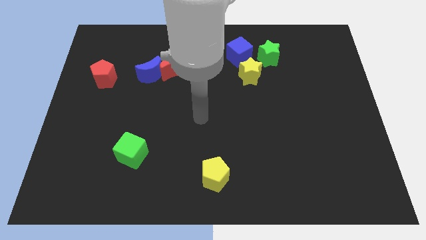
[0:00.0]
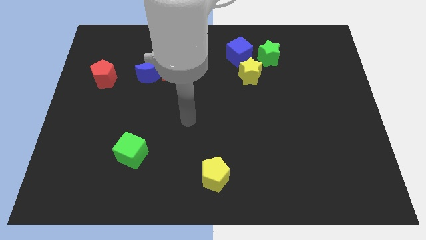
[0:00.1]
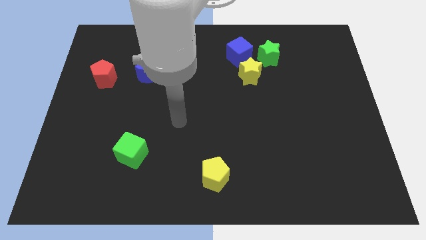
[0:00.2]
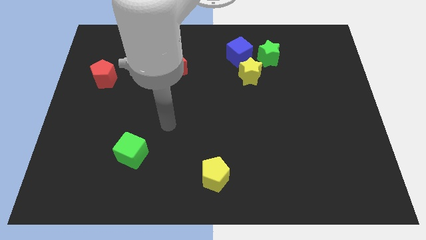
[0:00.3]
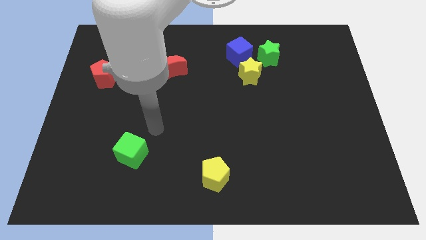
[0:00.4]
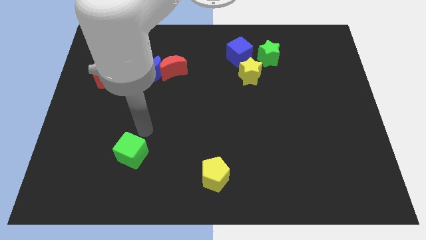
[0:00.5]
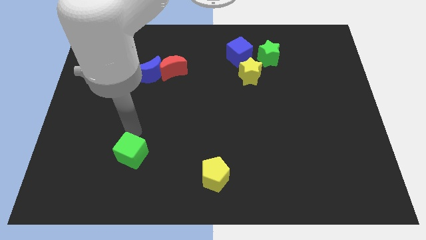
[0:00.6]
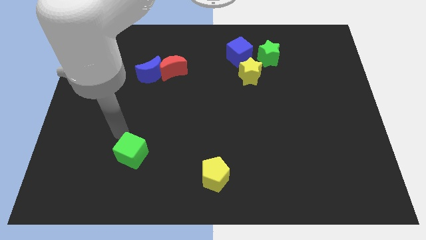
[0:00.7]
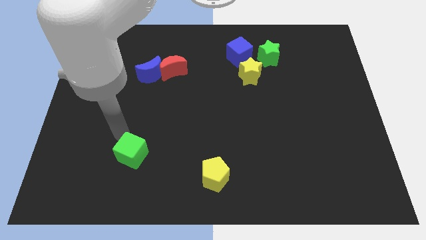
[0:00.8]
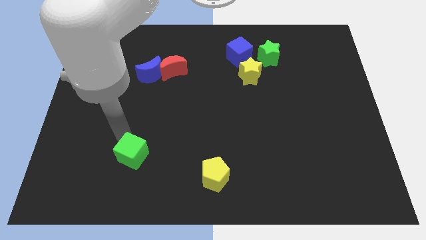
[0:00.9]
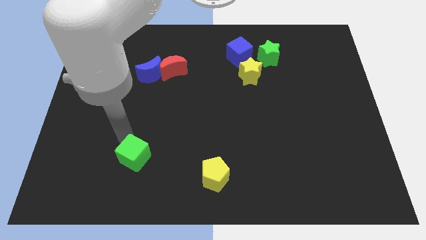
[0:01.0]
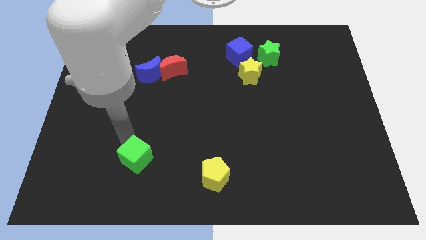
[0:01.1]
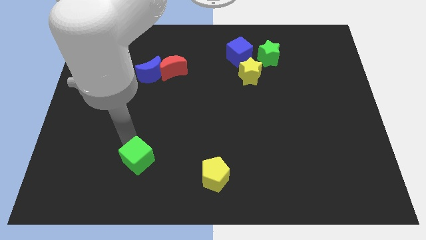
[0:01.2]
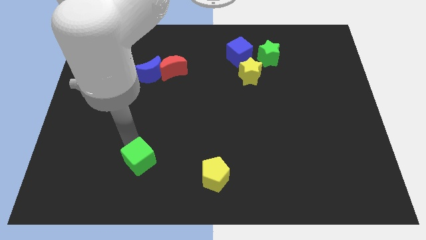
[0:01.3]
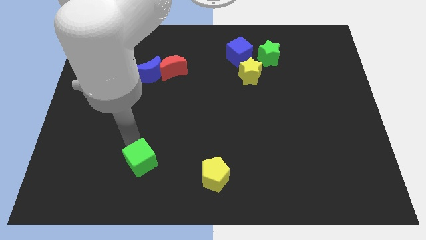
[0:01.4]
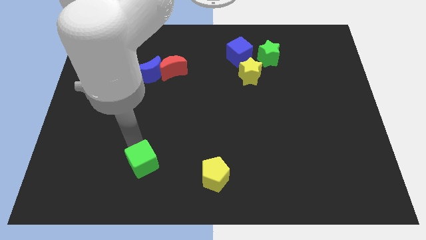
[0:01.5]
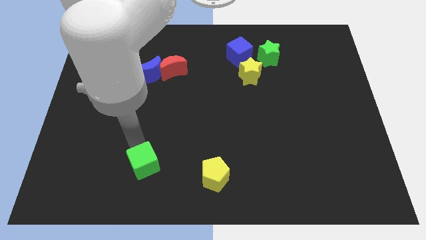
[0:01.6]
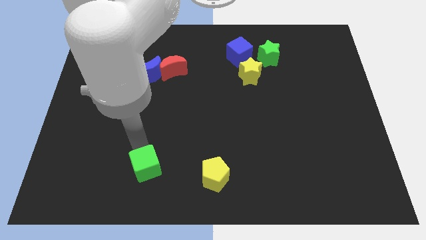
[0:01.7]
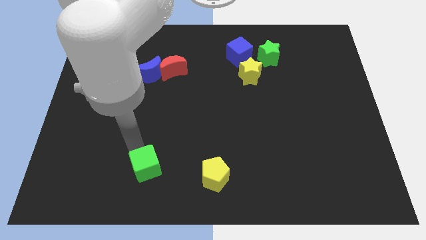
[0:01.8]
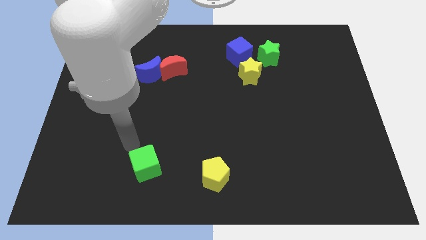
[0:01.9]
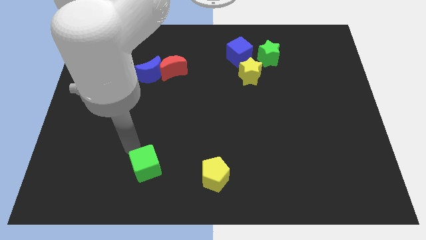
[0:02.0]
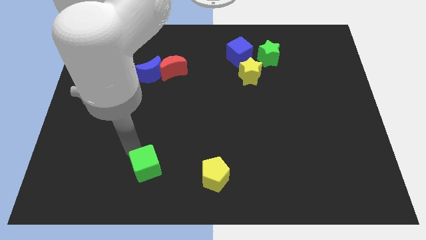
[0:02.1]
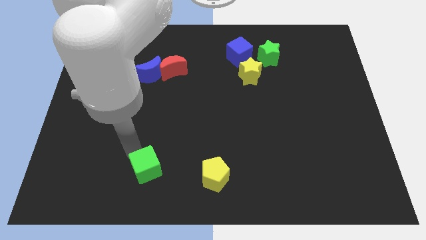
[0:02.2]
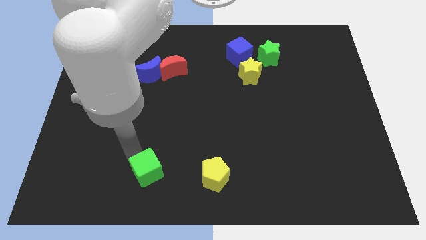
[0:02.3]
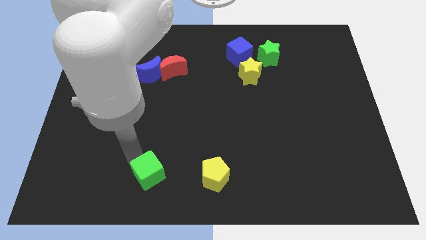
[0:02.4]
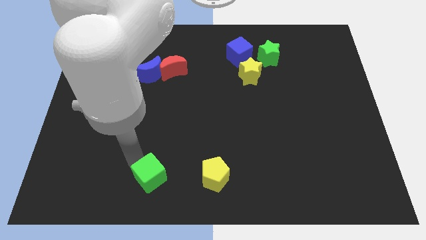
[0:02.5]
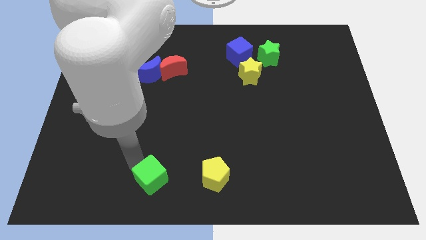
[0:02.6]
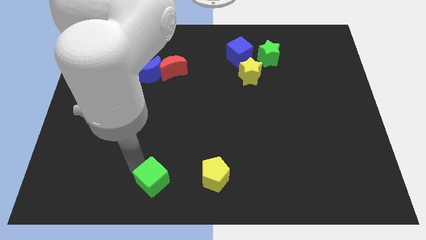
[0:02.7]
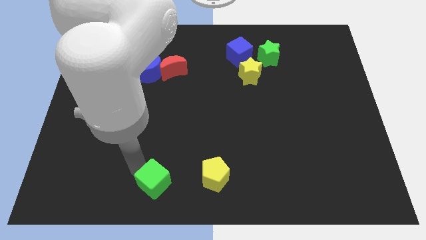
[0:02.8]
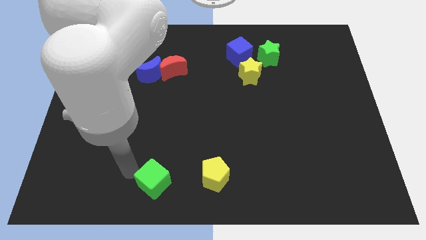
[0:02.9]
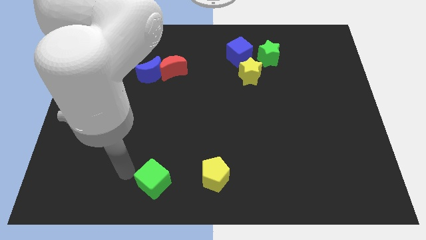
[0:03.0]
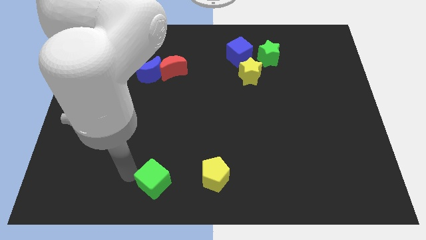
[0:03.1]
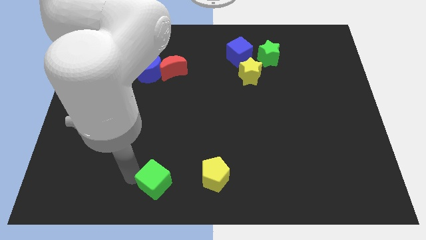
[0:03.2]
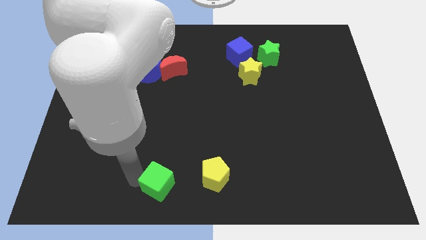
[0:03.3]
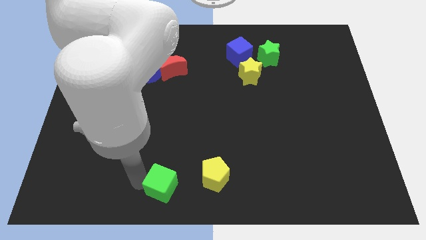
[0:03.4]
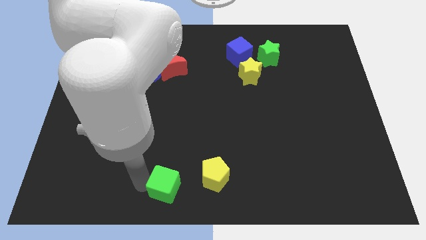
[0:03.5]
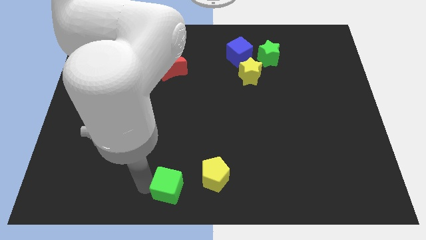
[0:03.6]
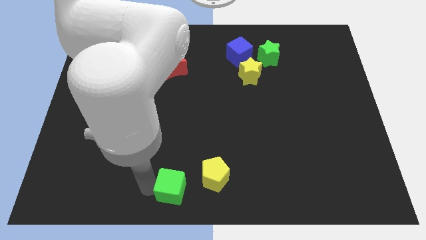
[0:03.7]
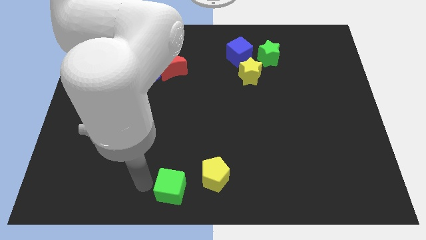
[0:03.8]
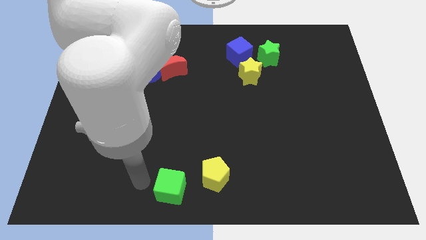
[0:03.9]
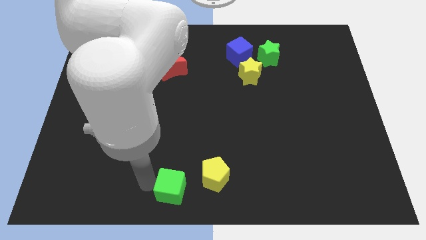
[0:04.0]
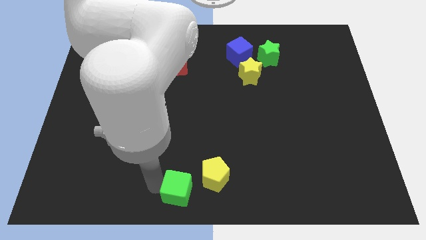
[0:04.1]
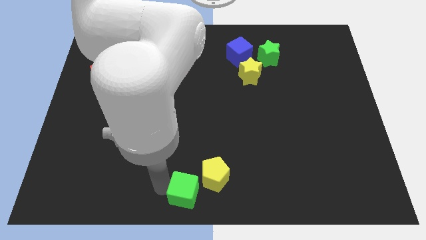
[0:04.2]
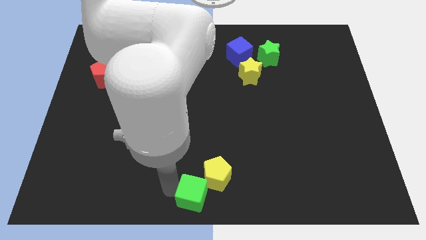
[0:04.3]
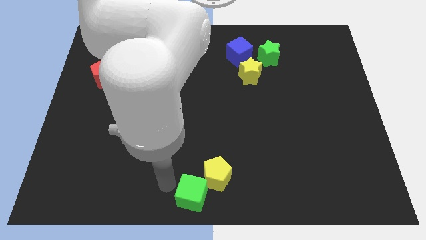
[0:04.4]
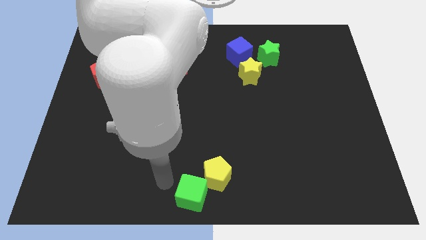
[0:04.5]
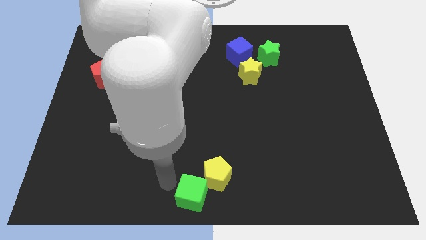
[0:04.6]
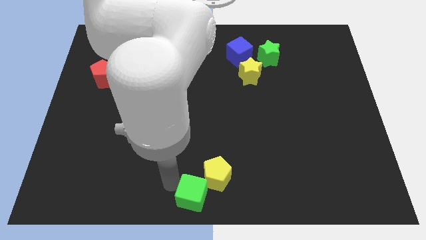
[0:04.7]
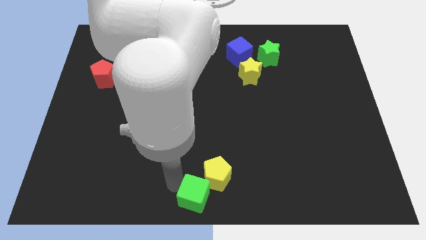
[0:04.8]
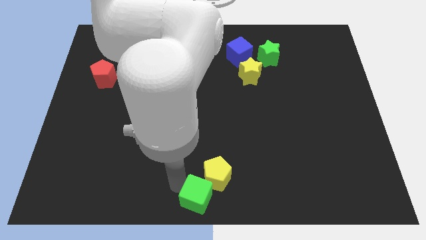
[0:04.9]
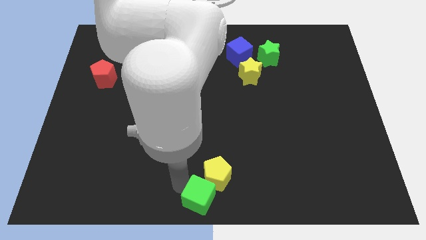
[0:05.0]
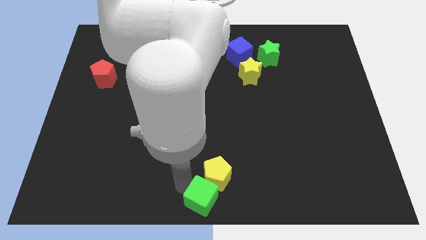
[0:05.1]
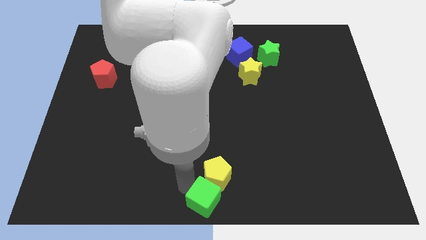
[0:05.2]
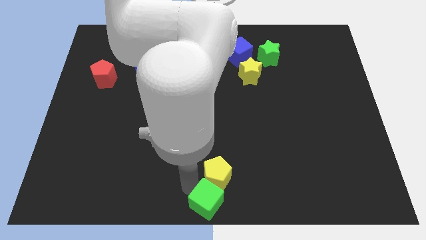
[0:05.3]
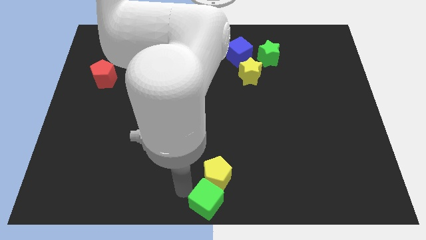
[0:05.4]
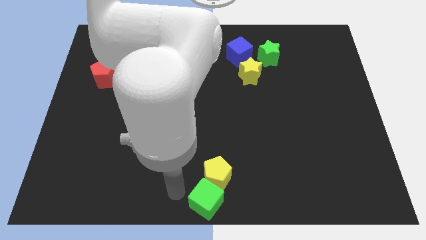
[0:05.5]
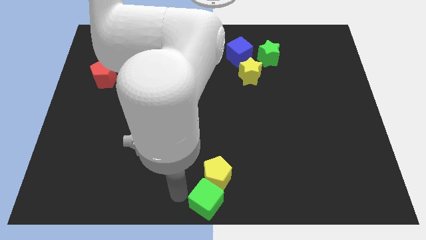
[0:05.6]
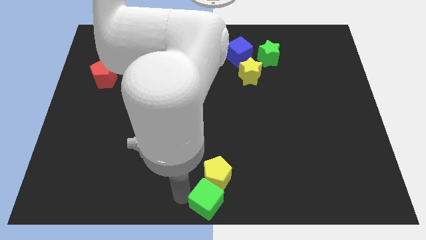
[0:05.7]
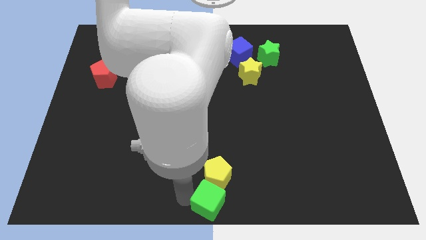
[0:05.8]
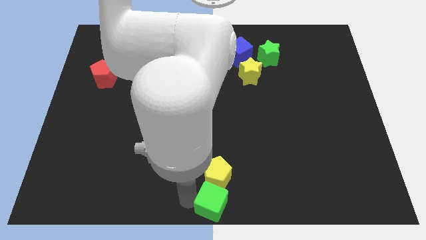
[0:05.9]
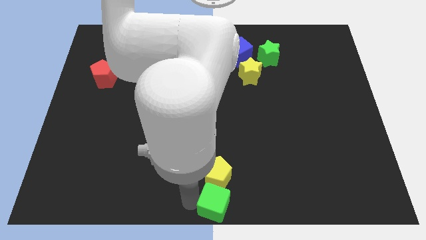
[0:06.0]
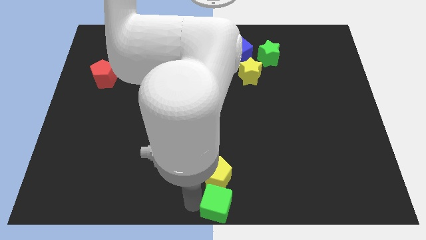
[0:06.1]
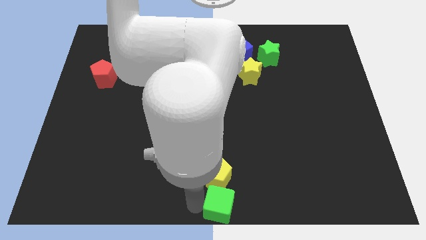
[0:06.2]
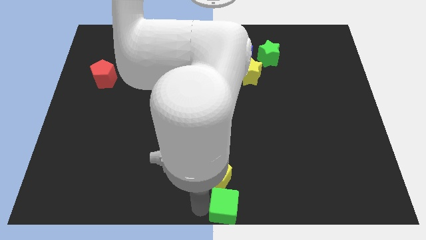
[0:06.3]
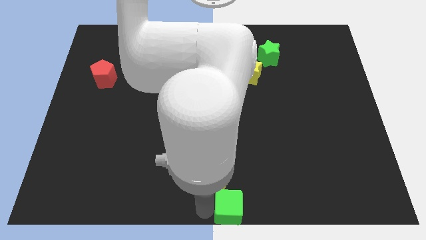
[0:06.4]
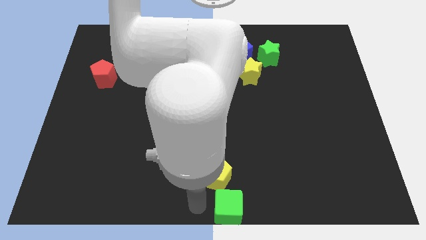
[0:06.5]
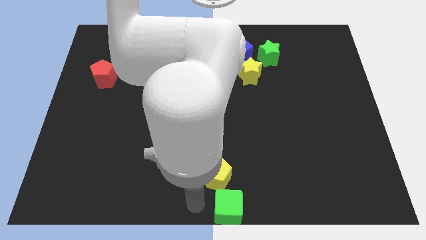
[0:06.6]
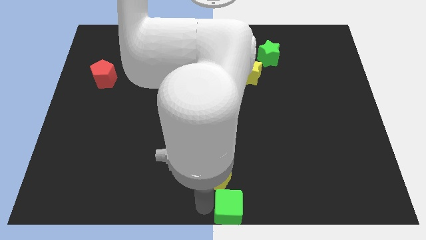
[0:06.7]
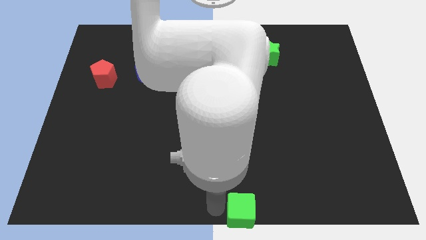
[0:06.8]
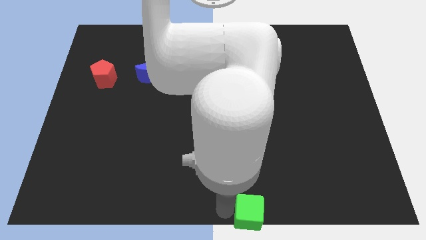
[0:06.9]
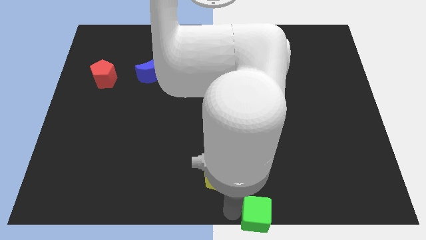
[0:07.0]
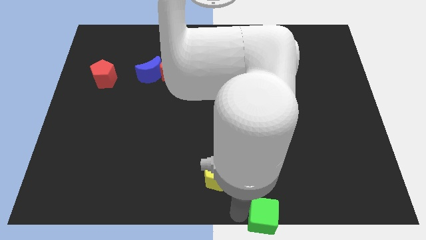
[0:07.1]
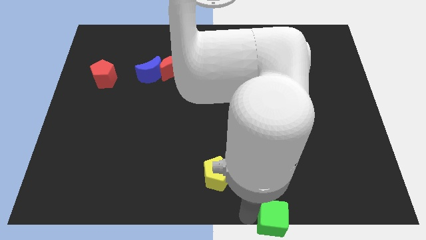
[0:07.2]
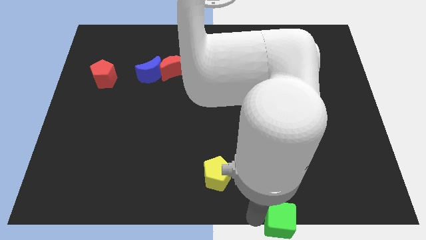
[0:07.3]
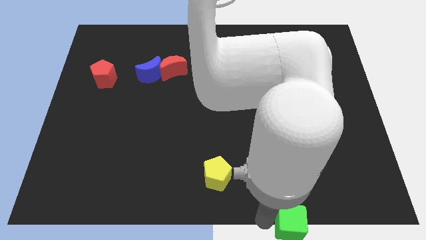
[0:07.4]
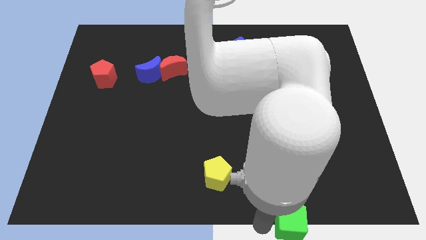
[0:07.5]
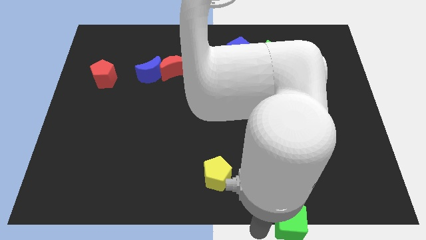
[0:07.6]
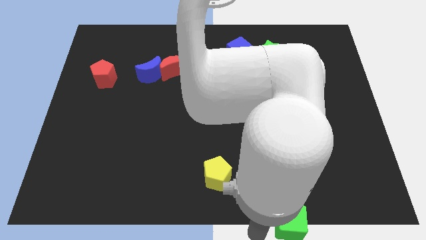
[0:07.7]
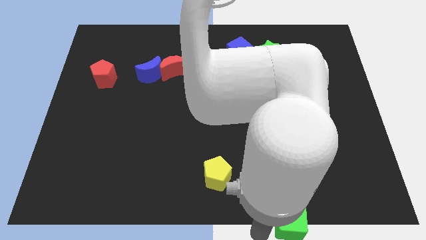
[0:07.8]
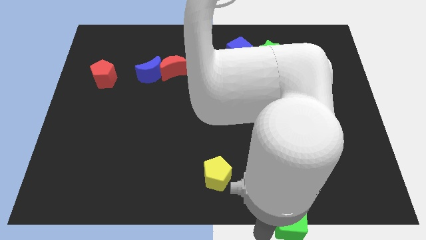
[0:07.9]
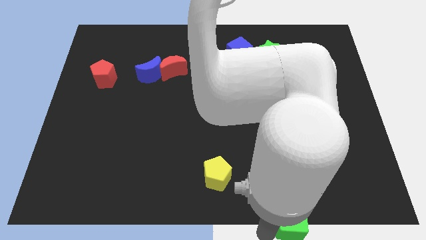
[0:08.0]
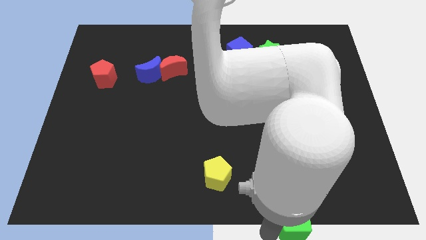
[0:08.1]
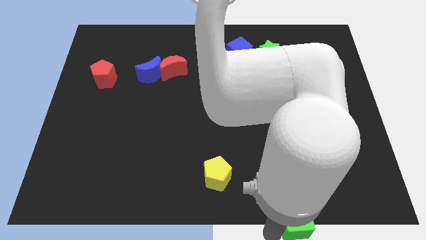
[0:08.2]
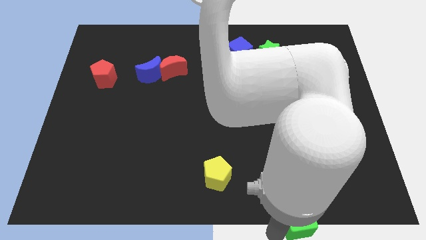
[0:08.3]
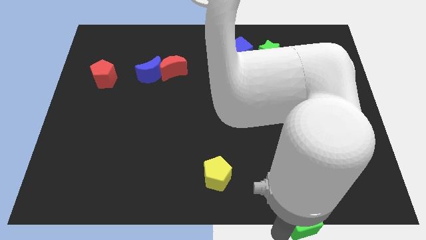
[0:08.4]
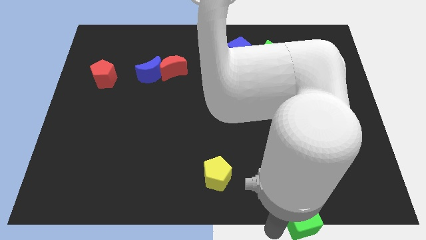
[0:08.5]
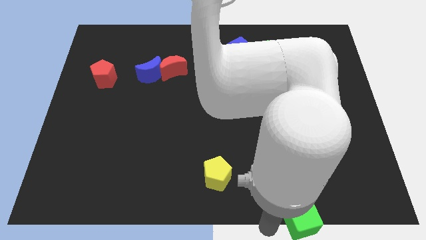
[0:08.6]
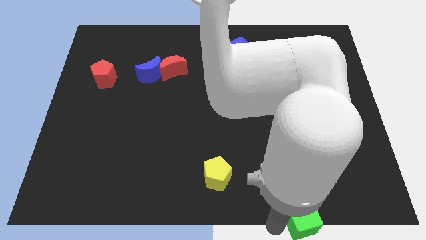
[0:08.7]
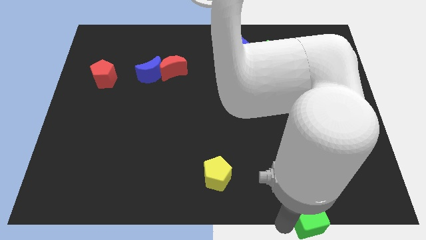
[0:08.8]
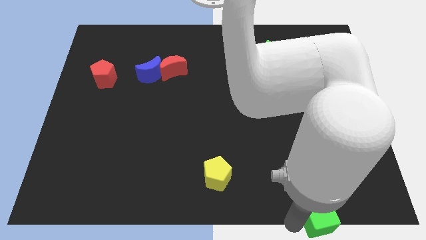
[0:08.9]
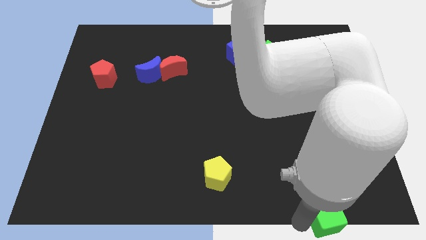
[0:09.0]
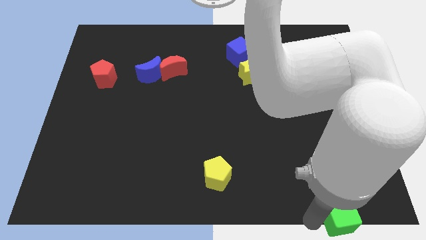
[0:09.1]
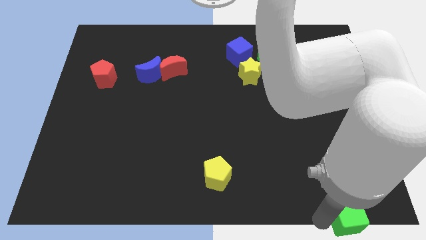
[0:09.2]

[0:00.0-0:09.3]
put the green cube to the lower right corner
